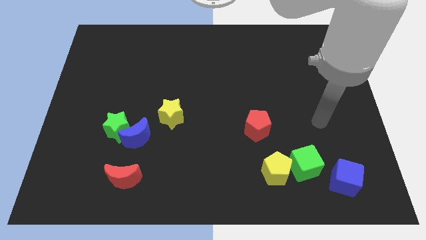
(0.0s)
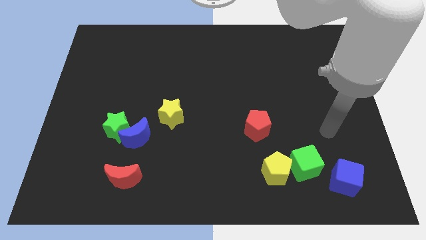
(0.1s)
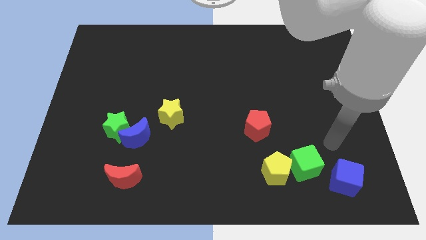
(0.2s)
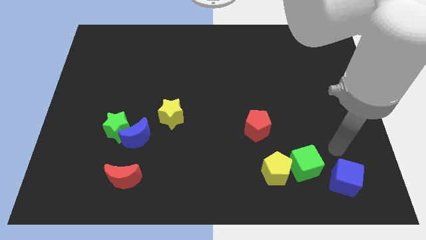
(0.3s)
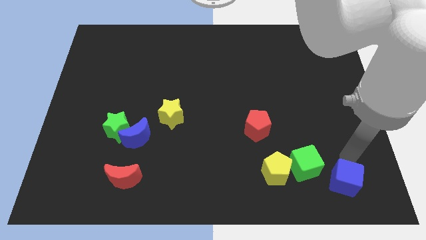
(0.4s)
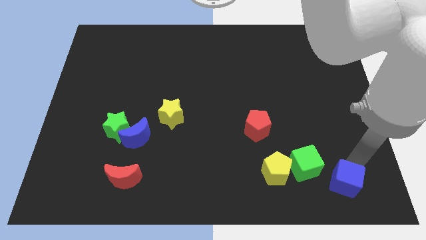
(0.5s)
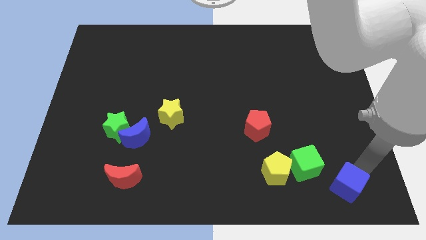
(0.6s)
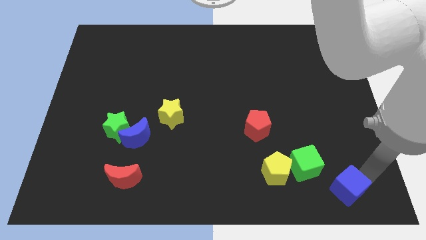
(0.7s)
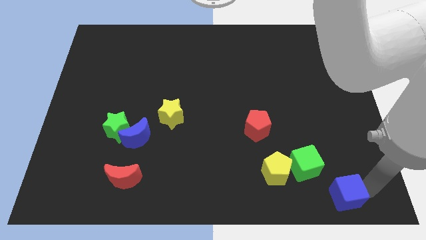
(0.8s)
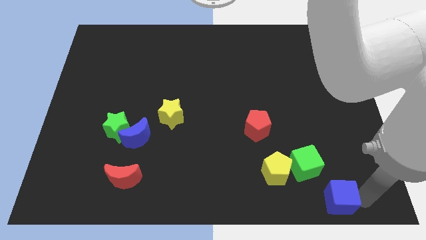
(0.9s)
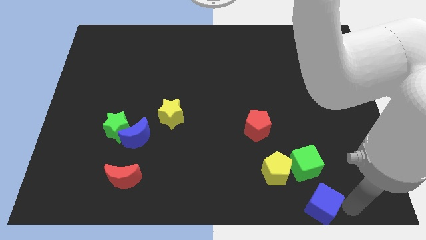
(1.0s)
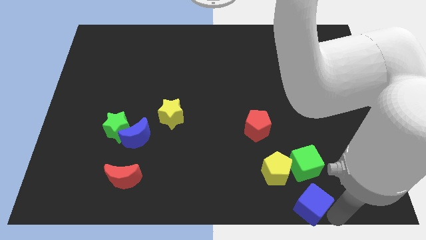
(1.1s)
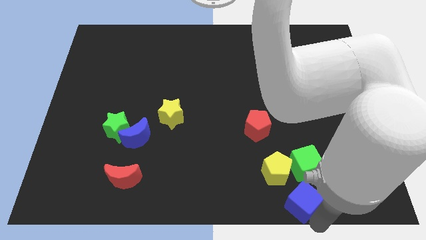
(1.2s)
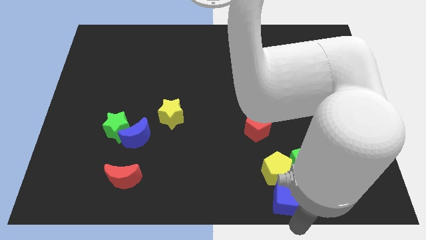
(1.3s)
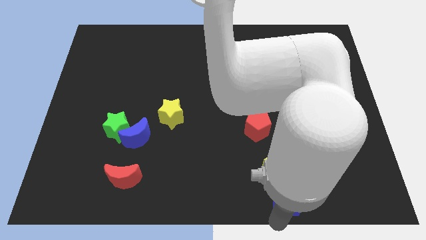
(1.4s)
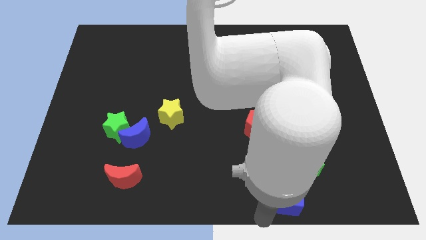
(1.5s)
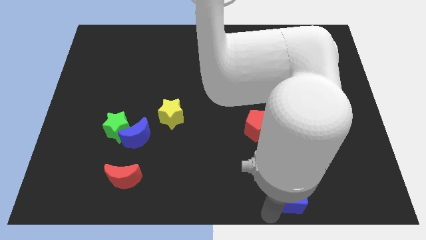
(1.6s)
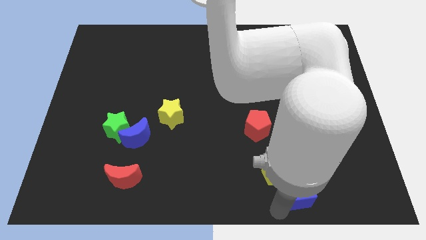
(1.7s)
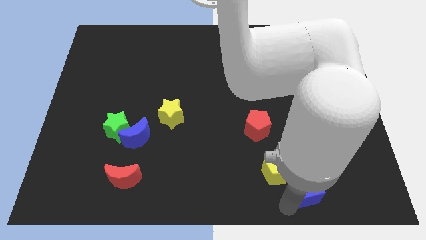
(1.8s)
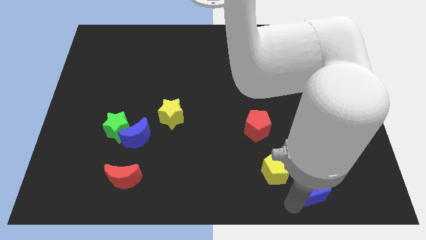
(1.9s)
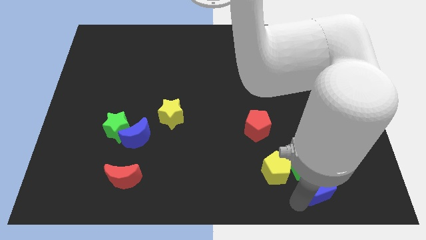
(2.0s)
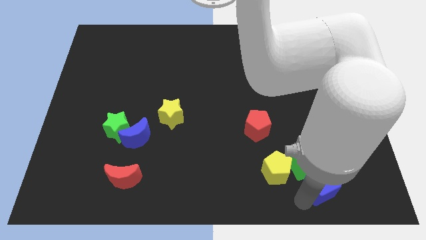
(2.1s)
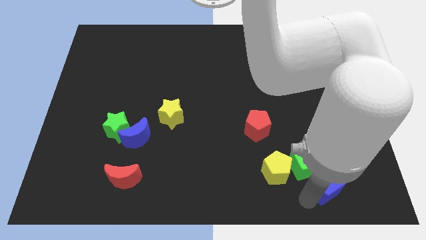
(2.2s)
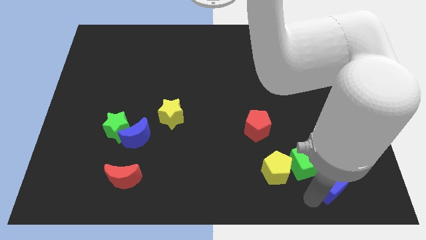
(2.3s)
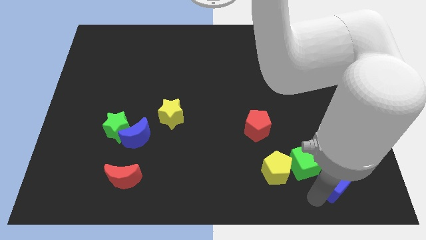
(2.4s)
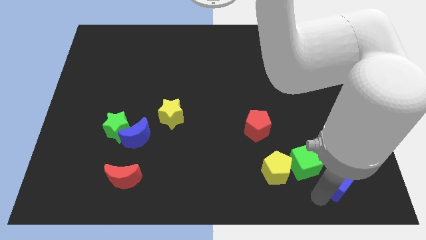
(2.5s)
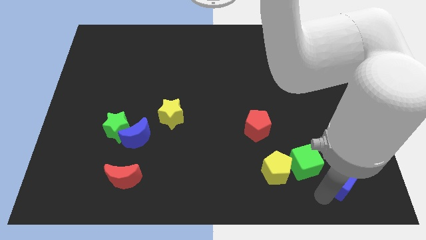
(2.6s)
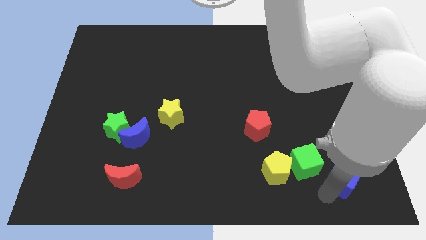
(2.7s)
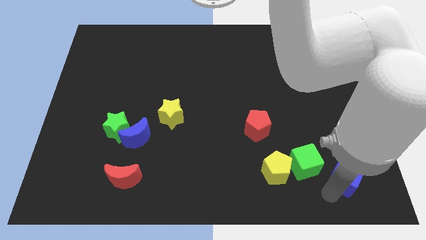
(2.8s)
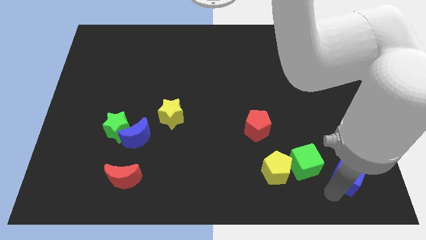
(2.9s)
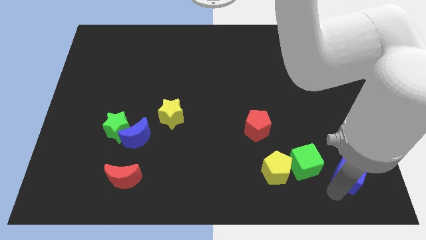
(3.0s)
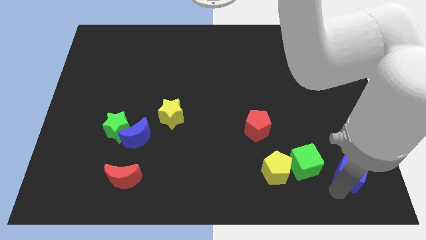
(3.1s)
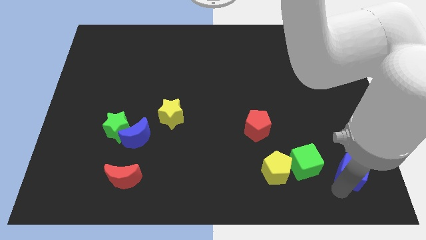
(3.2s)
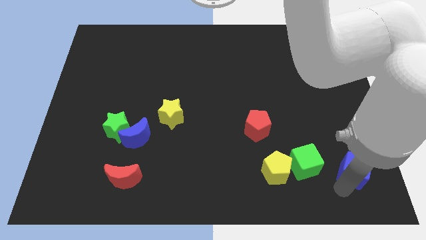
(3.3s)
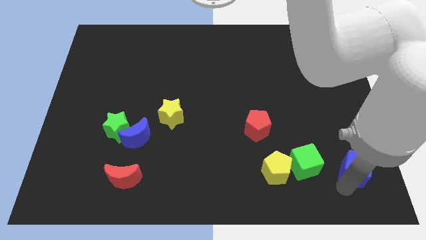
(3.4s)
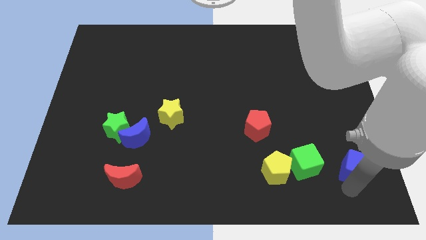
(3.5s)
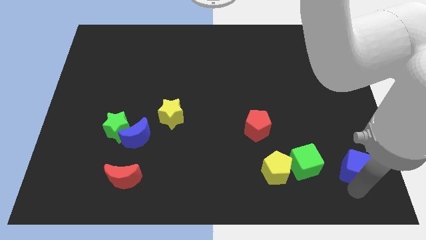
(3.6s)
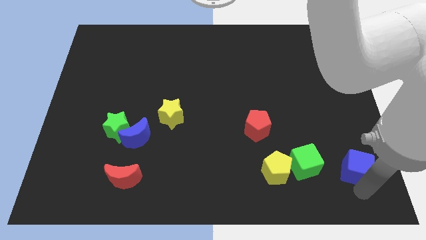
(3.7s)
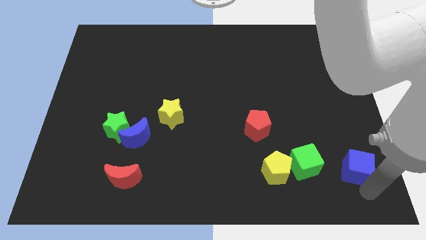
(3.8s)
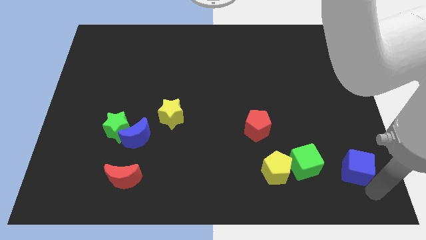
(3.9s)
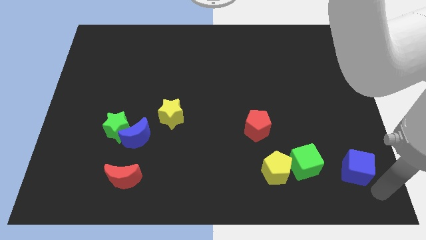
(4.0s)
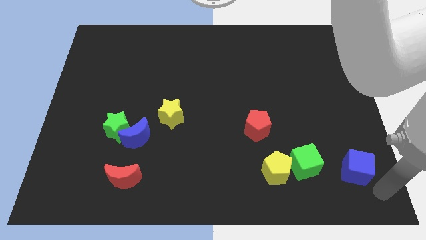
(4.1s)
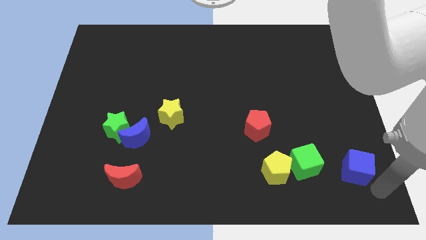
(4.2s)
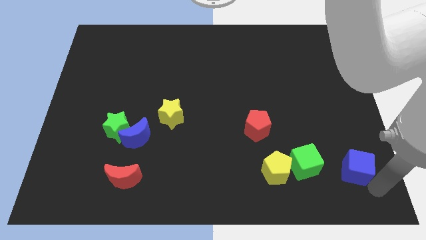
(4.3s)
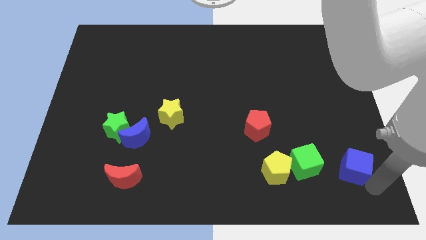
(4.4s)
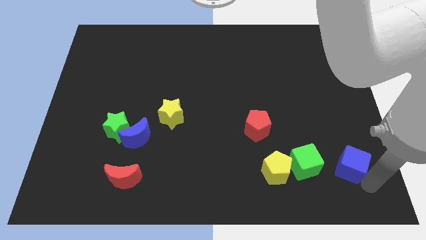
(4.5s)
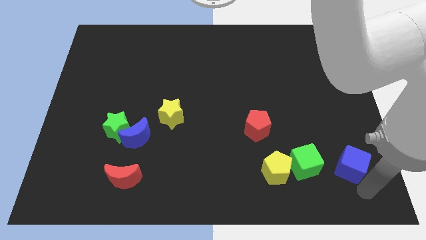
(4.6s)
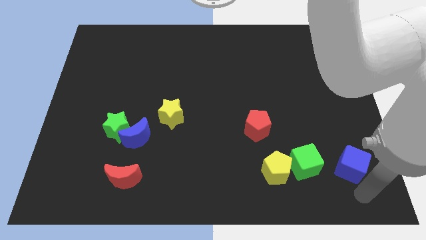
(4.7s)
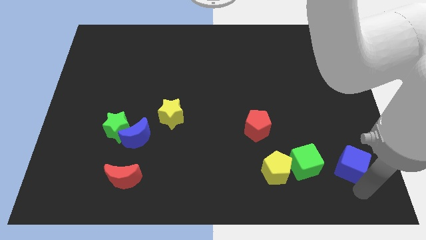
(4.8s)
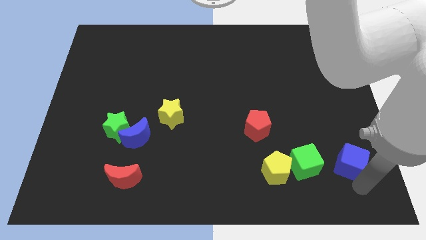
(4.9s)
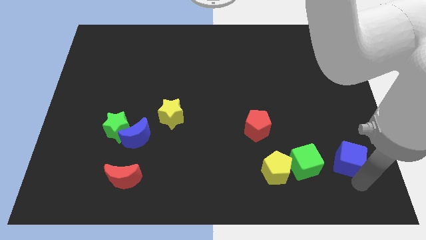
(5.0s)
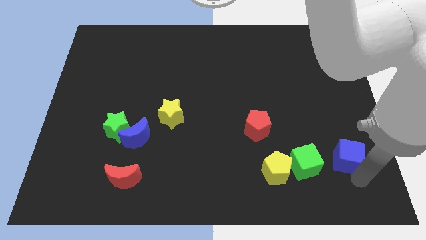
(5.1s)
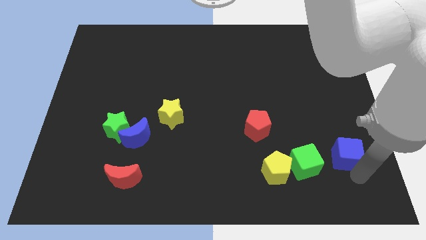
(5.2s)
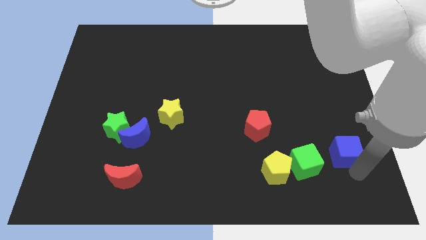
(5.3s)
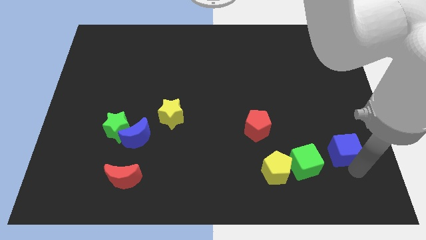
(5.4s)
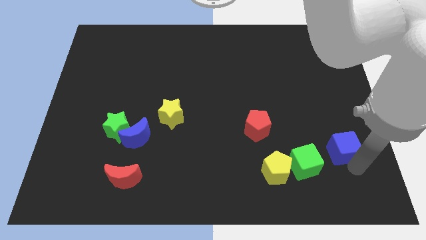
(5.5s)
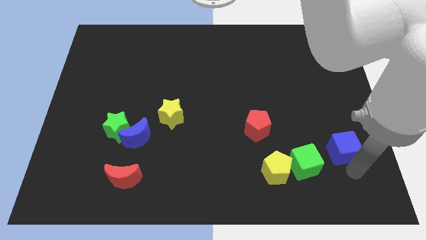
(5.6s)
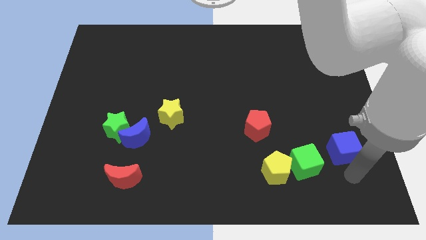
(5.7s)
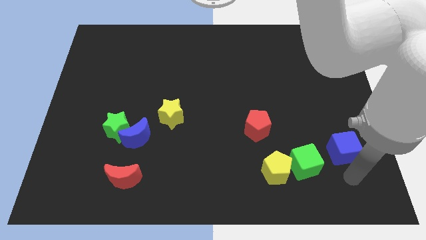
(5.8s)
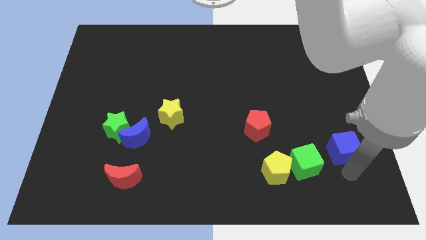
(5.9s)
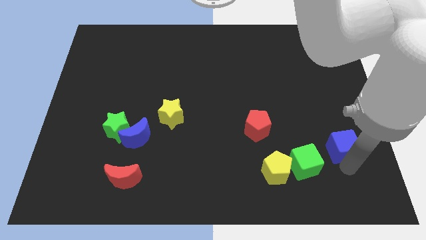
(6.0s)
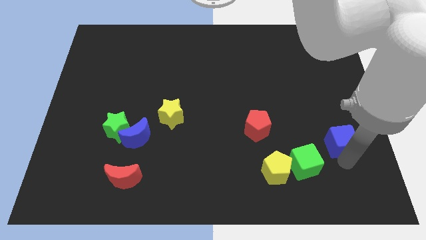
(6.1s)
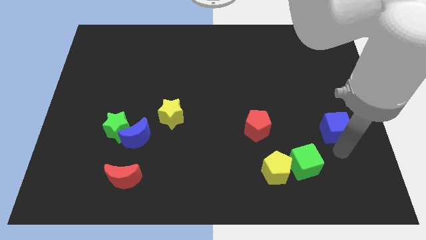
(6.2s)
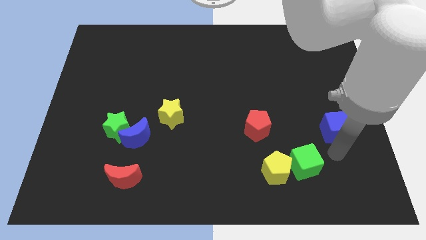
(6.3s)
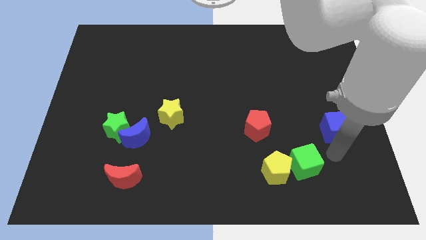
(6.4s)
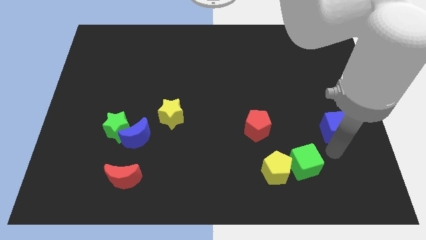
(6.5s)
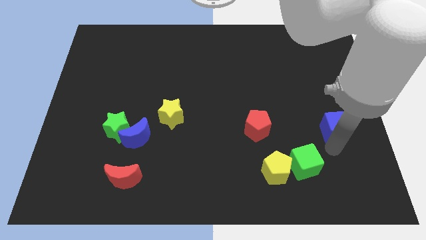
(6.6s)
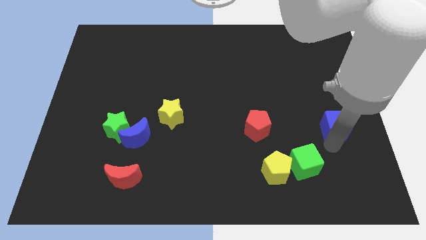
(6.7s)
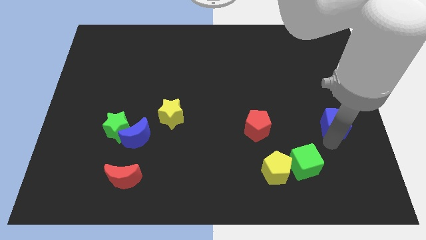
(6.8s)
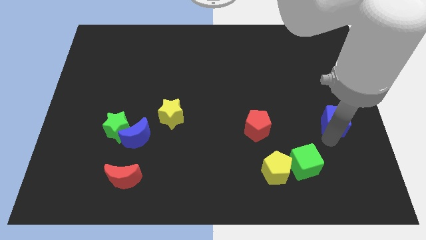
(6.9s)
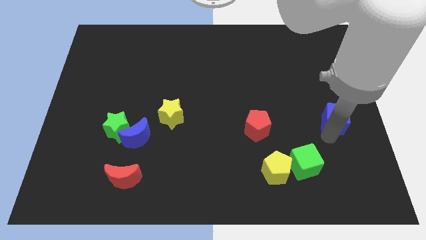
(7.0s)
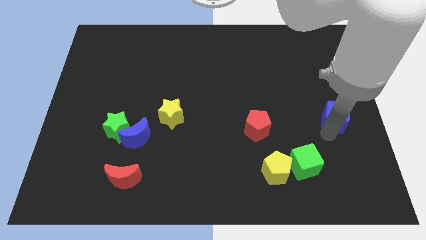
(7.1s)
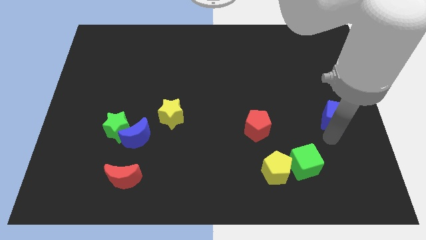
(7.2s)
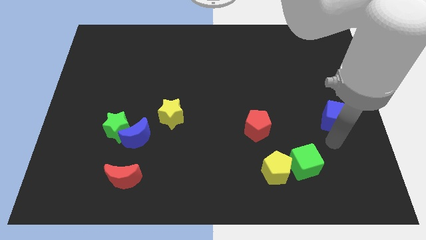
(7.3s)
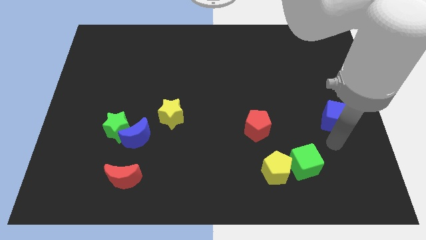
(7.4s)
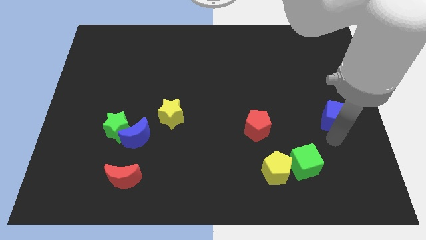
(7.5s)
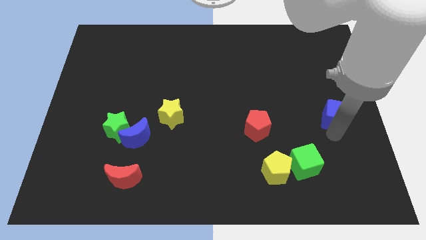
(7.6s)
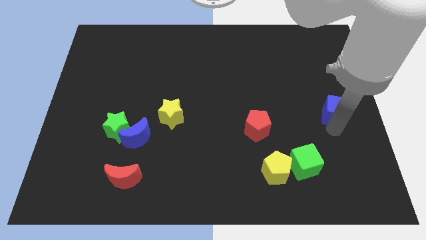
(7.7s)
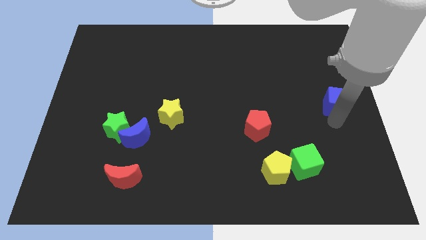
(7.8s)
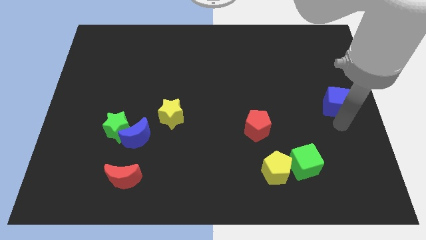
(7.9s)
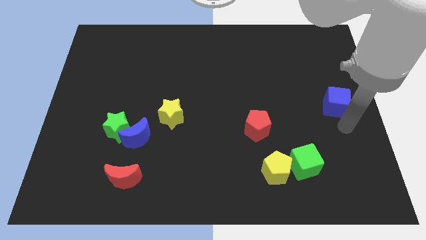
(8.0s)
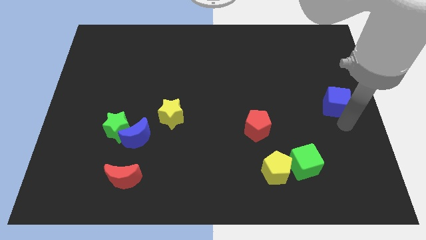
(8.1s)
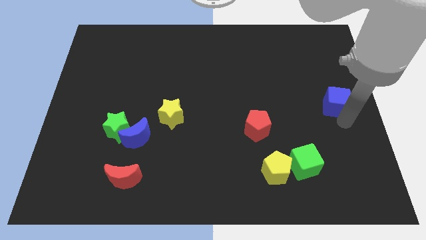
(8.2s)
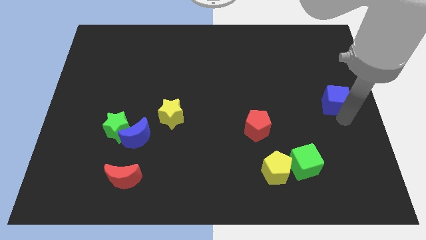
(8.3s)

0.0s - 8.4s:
slide the blue cube upwards
